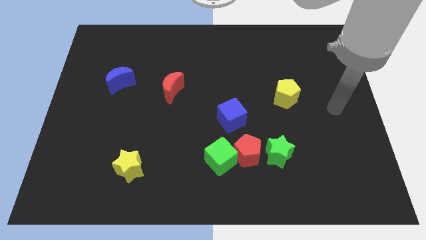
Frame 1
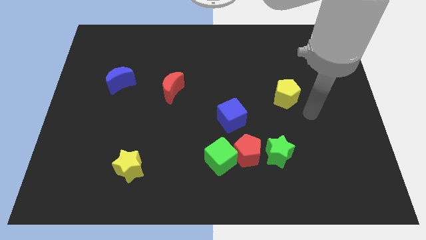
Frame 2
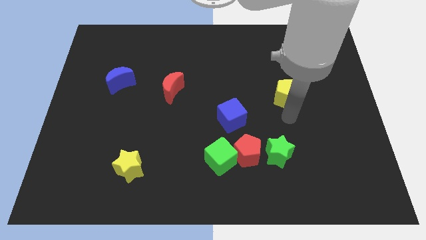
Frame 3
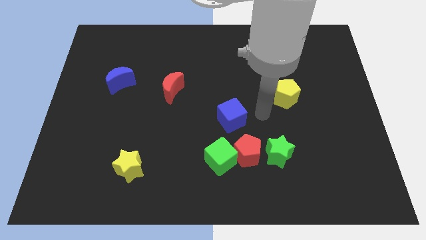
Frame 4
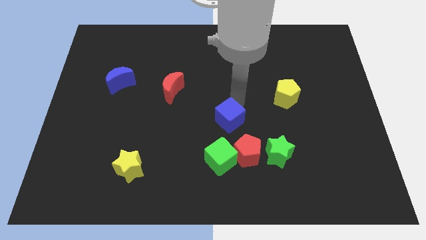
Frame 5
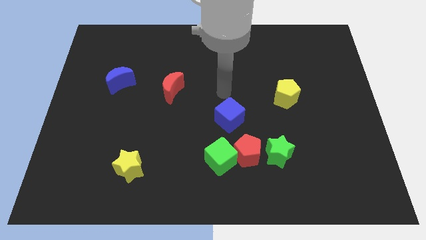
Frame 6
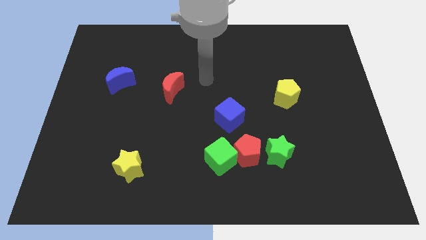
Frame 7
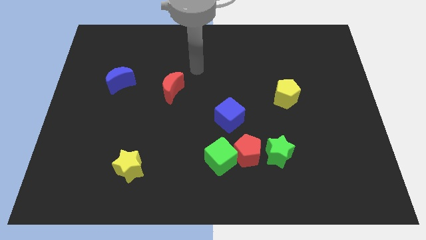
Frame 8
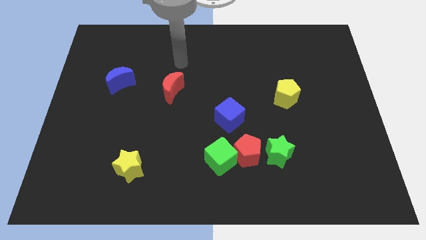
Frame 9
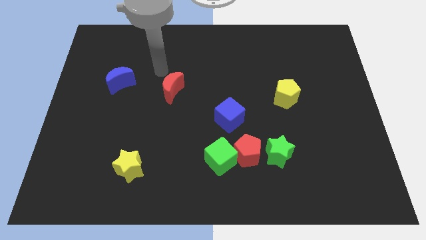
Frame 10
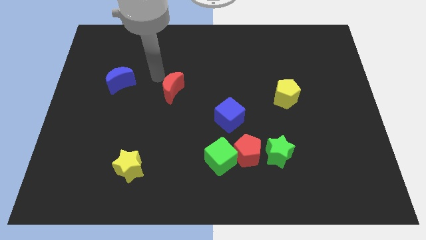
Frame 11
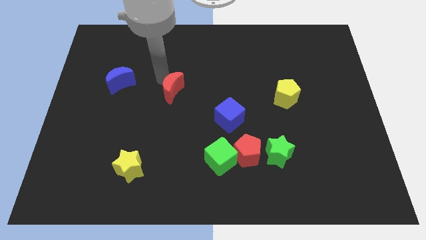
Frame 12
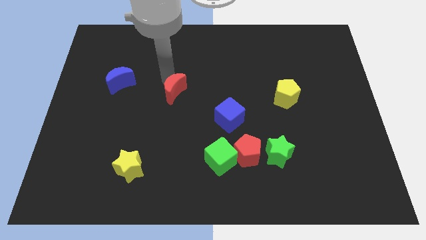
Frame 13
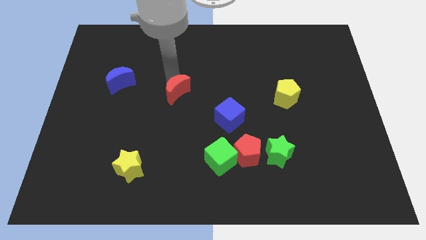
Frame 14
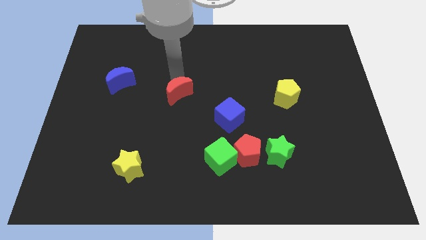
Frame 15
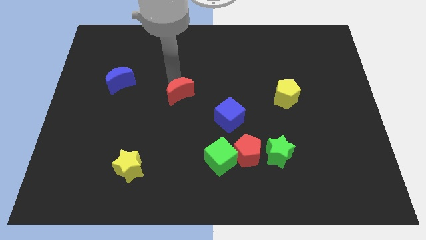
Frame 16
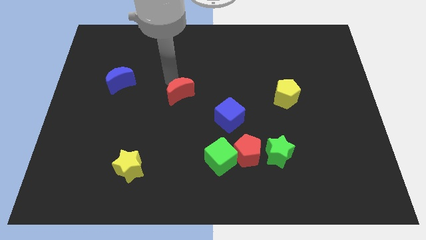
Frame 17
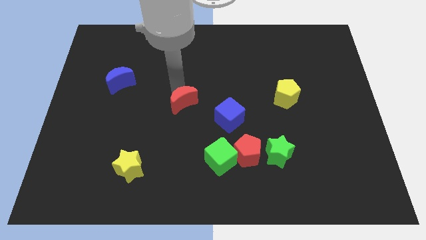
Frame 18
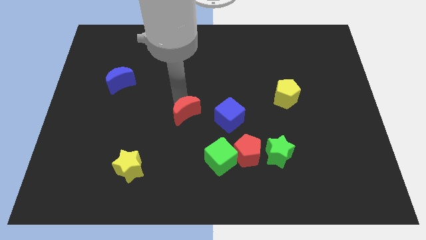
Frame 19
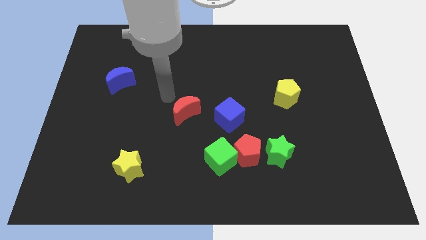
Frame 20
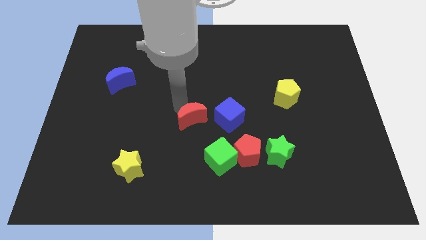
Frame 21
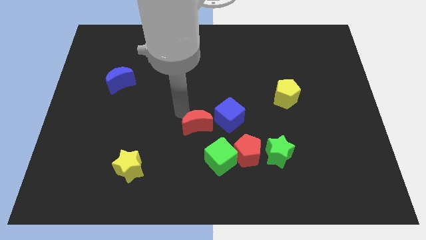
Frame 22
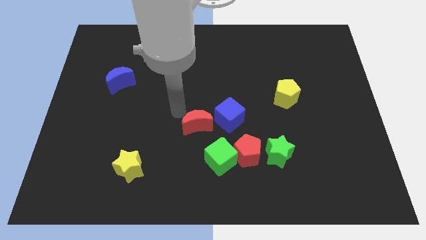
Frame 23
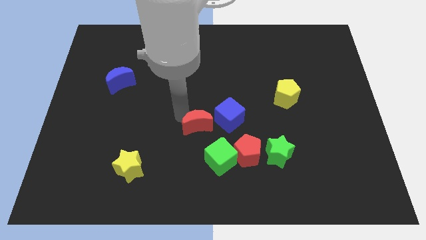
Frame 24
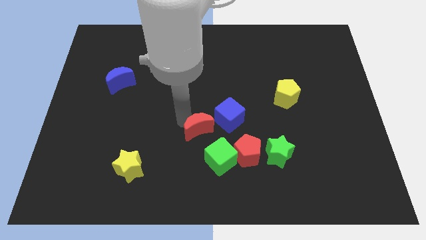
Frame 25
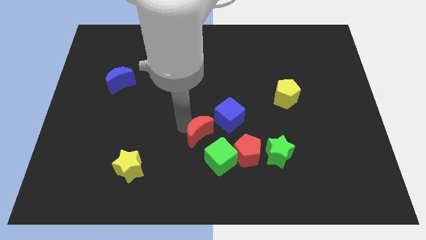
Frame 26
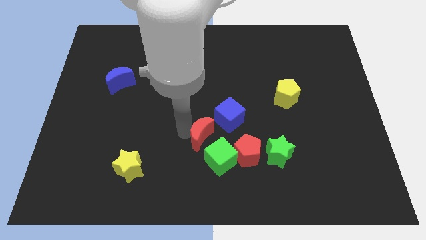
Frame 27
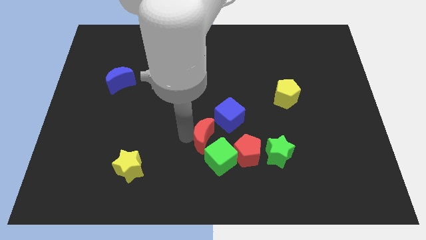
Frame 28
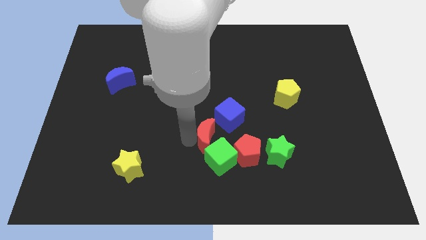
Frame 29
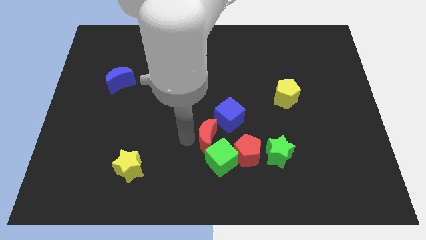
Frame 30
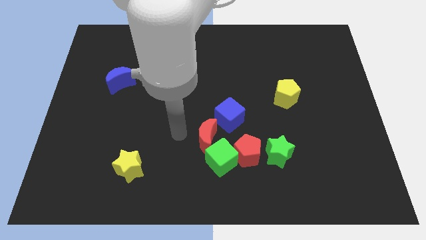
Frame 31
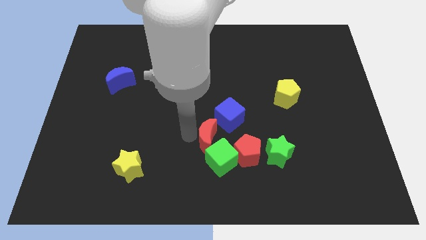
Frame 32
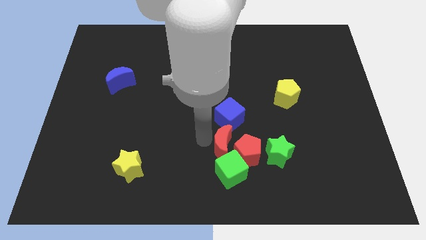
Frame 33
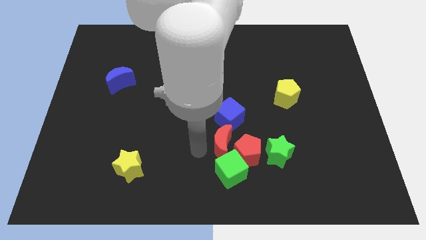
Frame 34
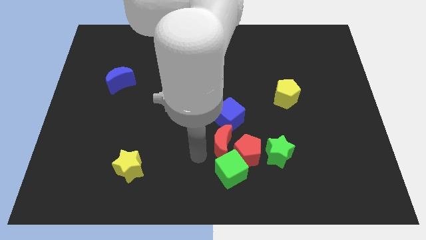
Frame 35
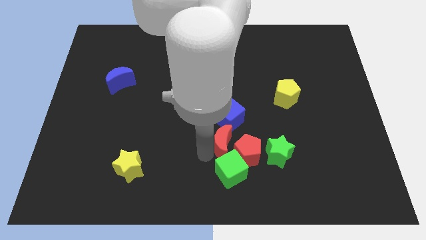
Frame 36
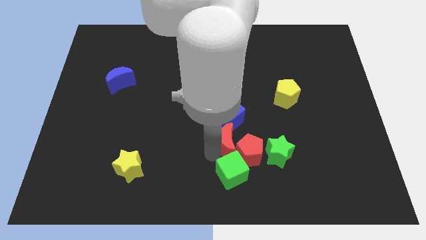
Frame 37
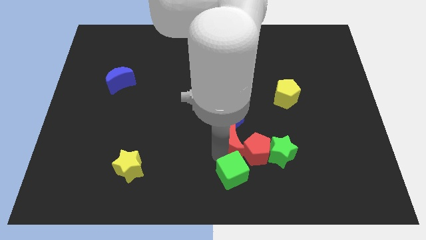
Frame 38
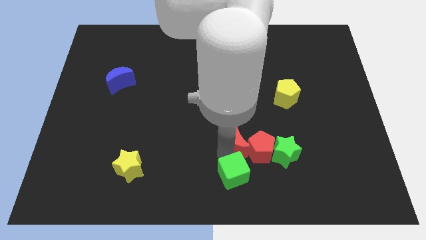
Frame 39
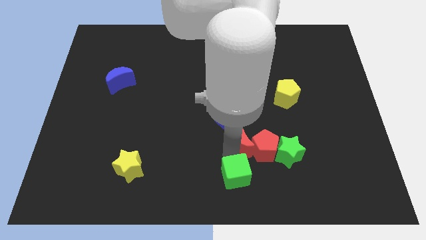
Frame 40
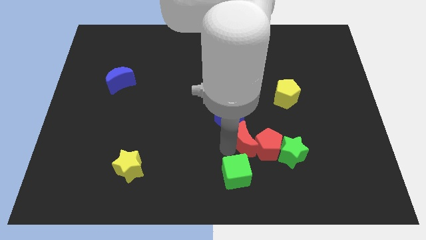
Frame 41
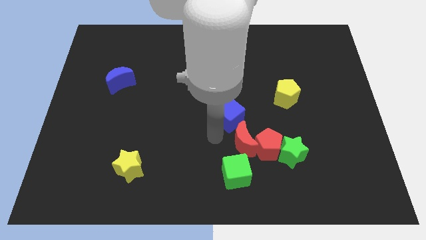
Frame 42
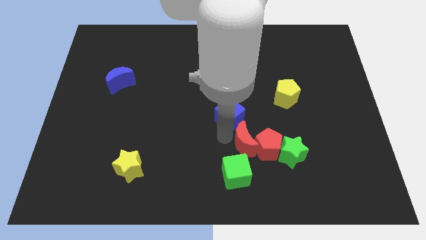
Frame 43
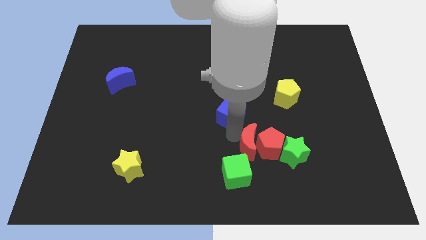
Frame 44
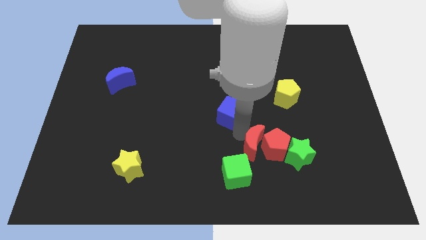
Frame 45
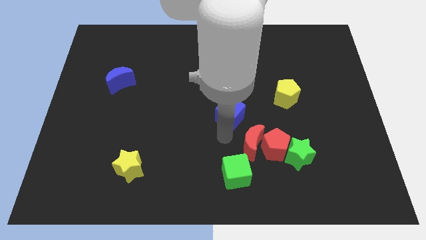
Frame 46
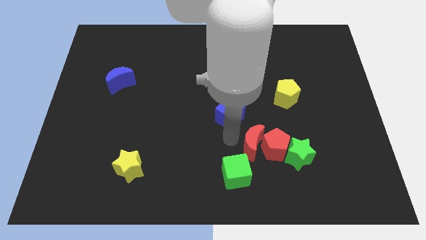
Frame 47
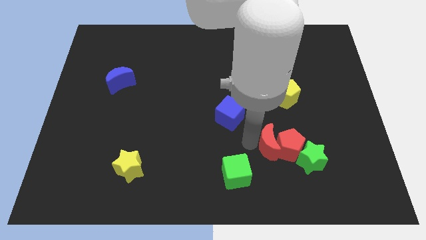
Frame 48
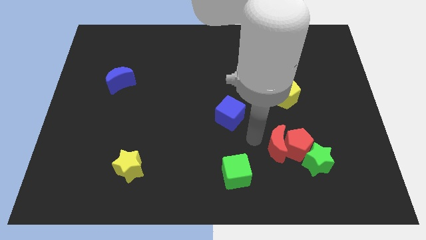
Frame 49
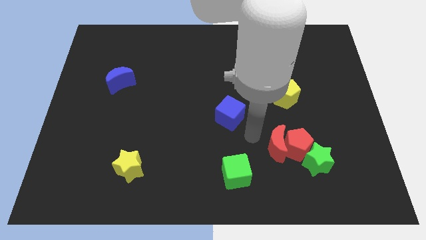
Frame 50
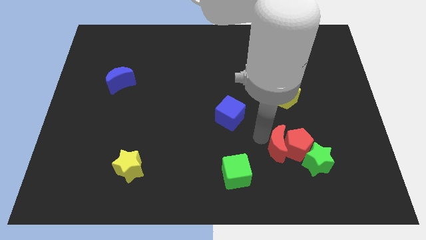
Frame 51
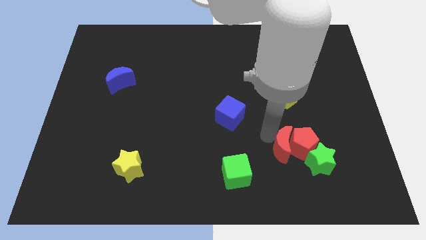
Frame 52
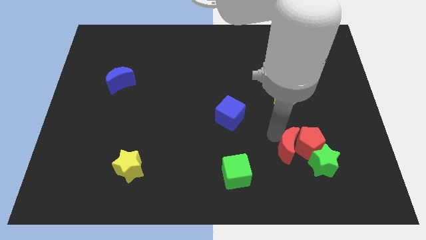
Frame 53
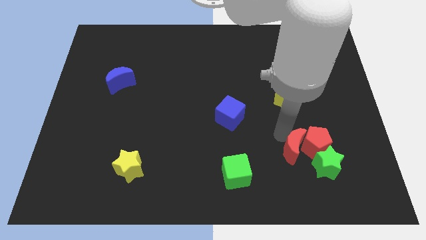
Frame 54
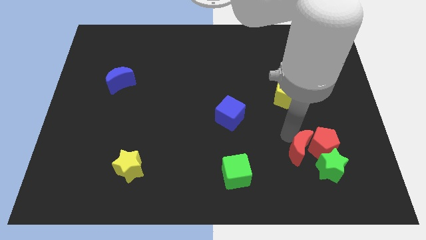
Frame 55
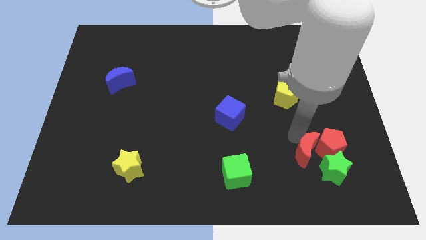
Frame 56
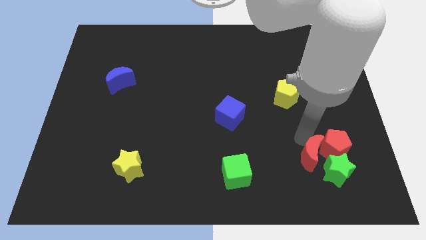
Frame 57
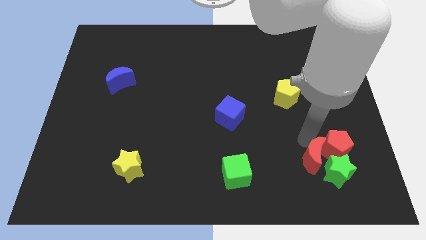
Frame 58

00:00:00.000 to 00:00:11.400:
slide the red moon close to the green star

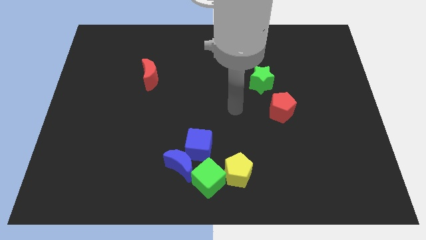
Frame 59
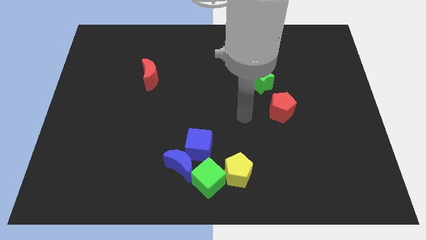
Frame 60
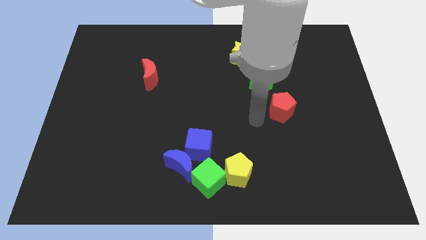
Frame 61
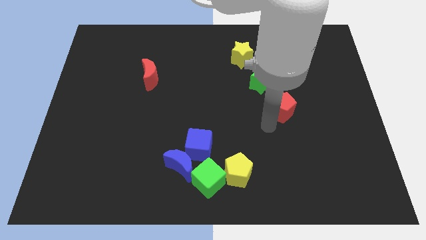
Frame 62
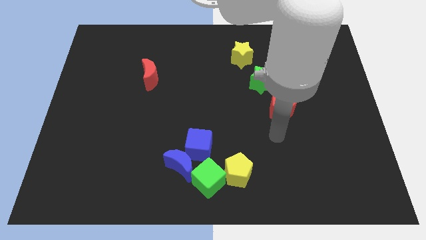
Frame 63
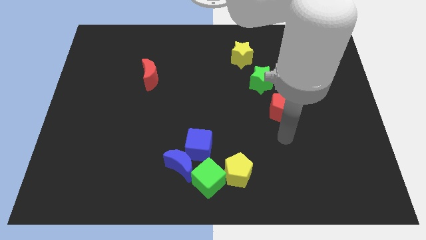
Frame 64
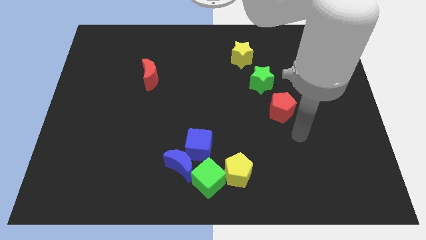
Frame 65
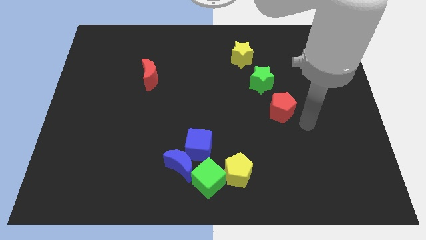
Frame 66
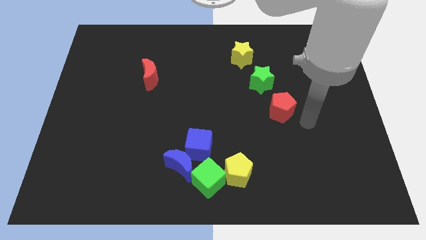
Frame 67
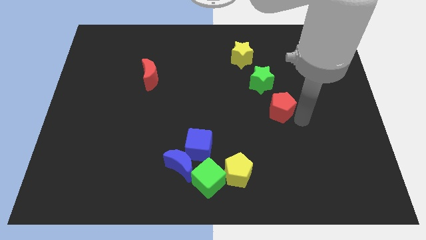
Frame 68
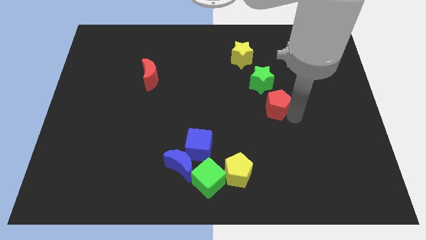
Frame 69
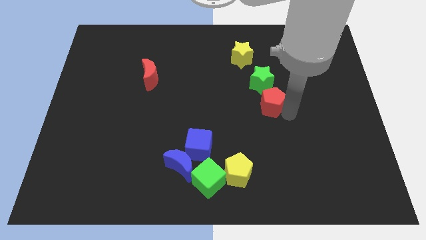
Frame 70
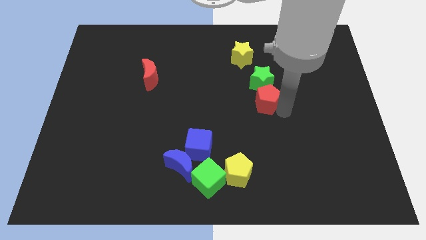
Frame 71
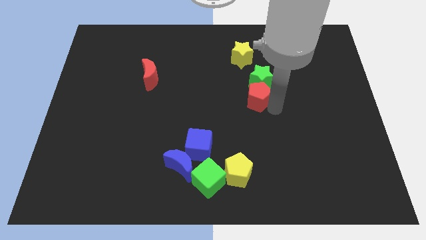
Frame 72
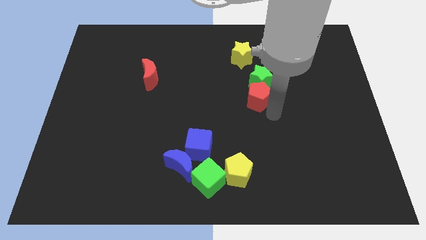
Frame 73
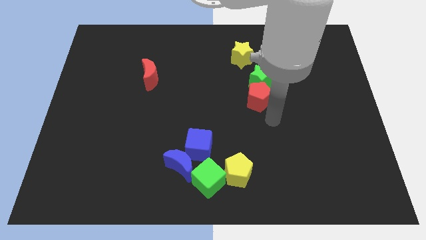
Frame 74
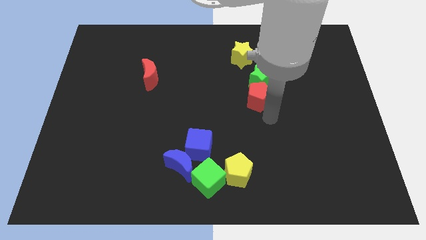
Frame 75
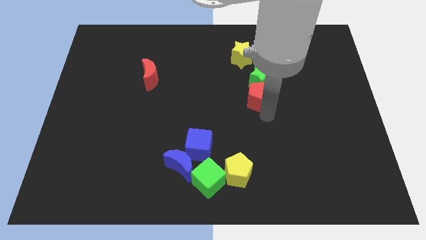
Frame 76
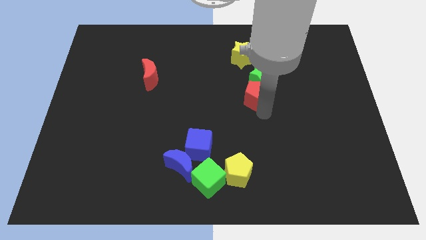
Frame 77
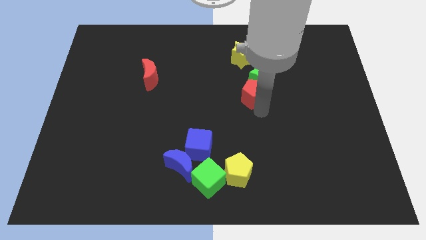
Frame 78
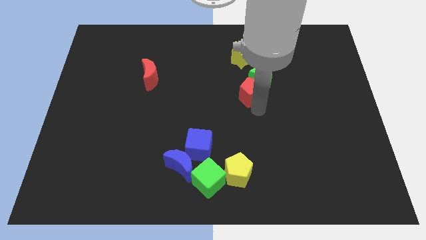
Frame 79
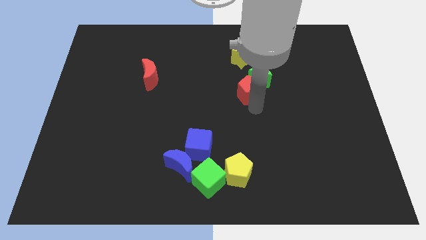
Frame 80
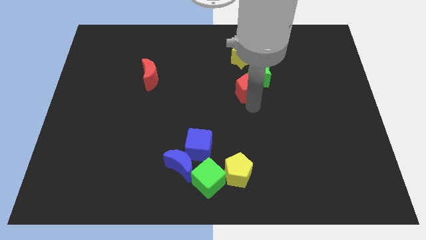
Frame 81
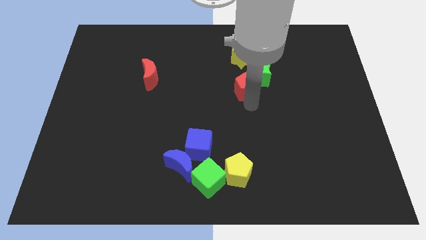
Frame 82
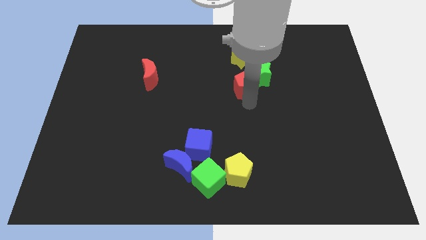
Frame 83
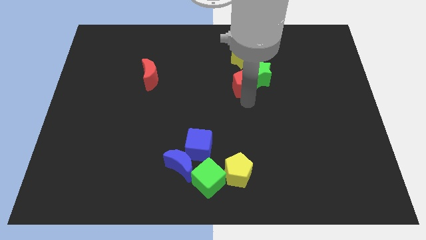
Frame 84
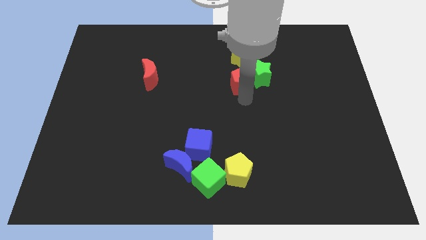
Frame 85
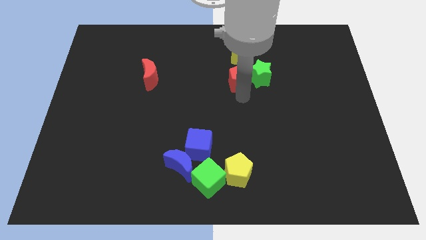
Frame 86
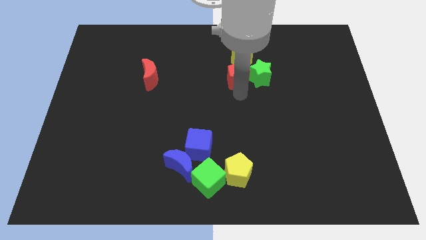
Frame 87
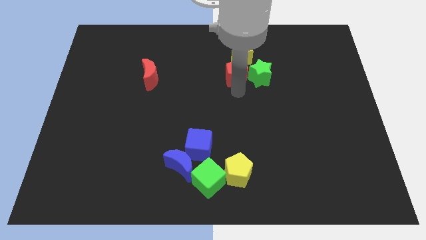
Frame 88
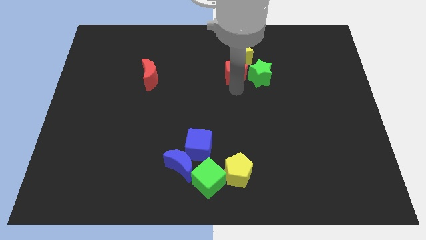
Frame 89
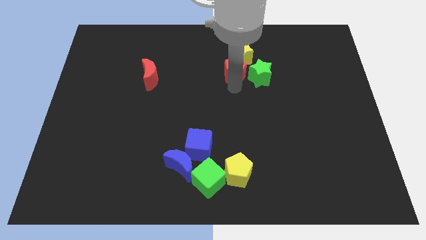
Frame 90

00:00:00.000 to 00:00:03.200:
push the red pentagon next to the yellow star
